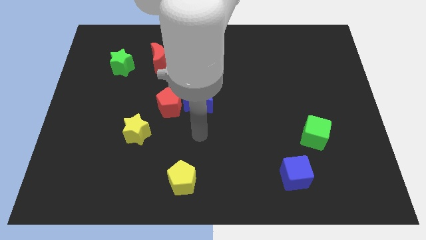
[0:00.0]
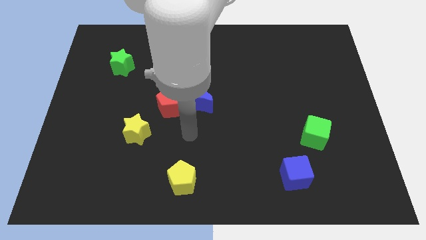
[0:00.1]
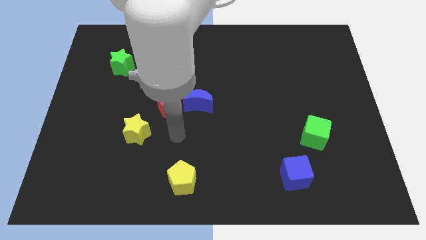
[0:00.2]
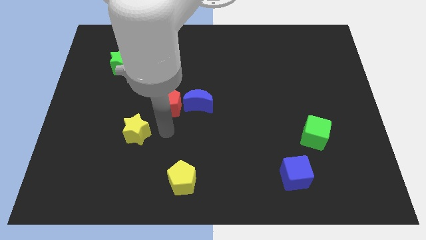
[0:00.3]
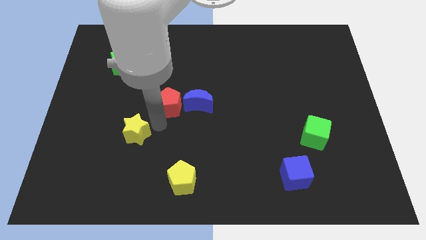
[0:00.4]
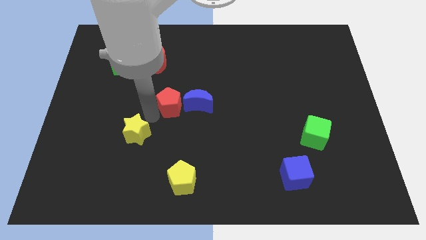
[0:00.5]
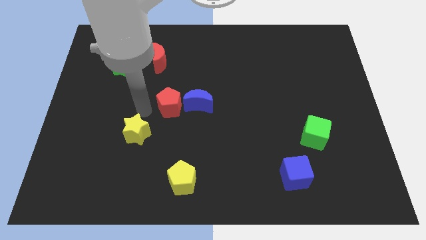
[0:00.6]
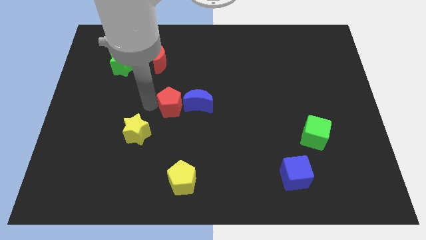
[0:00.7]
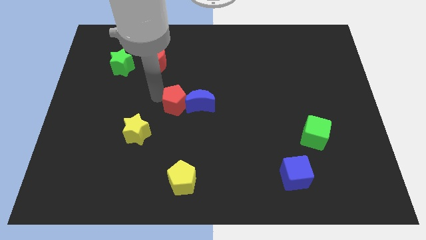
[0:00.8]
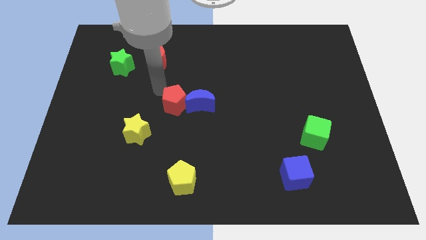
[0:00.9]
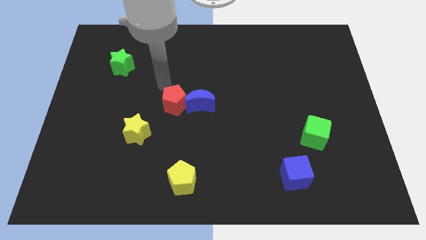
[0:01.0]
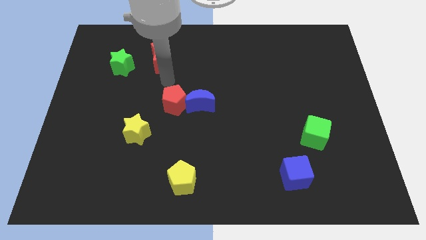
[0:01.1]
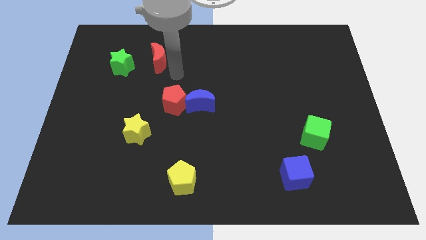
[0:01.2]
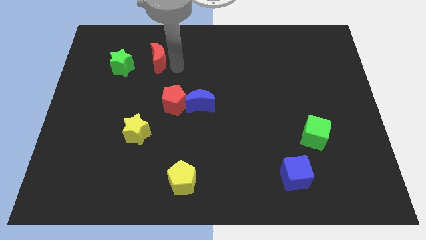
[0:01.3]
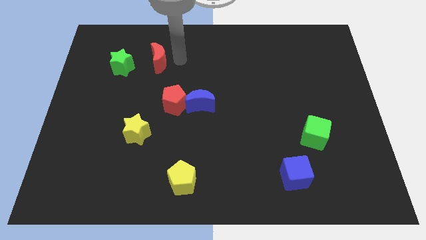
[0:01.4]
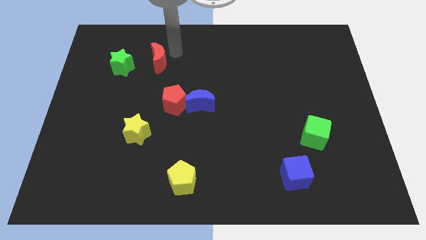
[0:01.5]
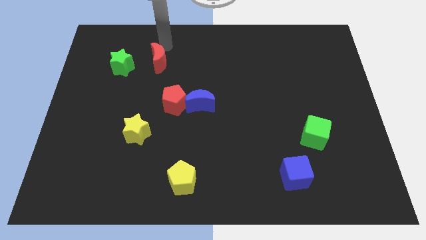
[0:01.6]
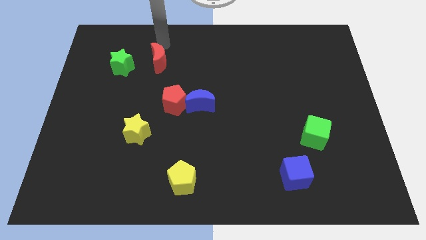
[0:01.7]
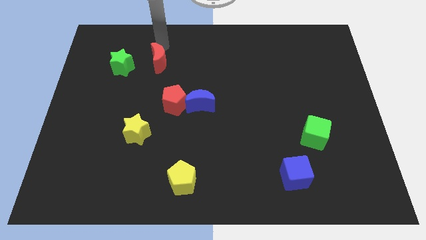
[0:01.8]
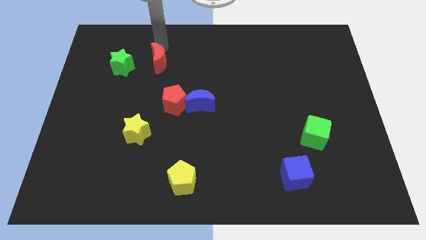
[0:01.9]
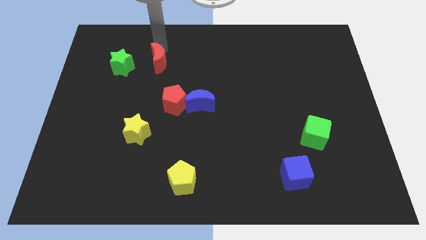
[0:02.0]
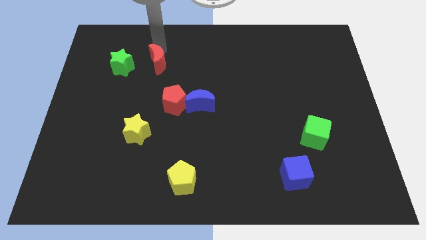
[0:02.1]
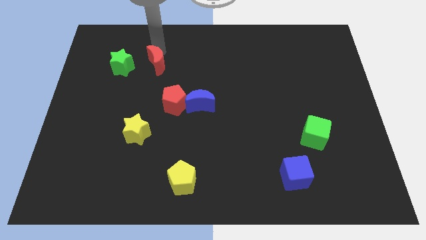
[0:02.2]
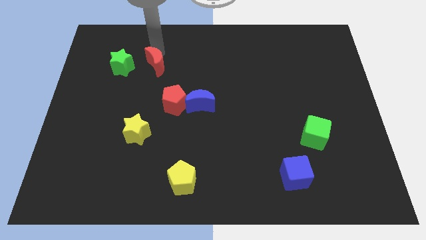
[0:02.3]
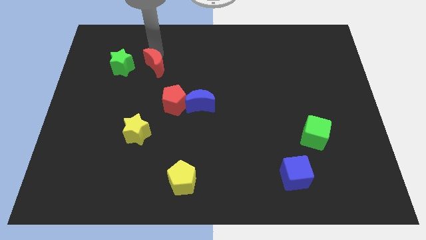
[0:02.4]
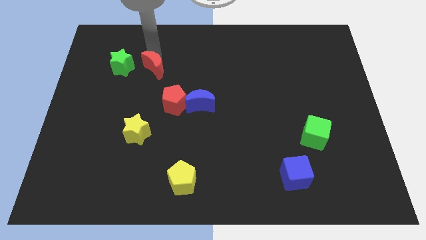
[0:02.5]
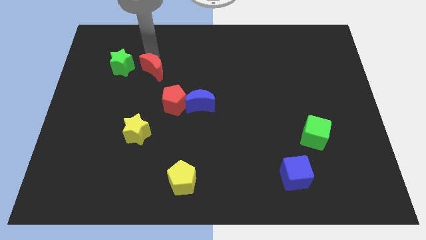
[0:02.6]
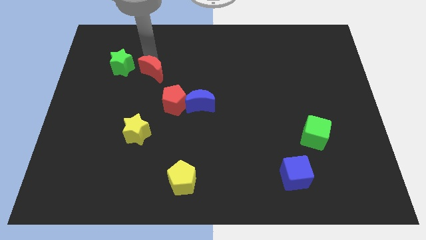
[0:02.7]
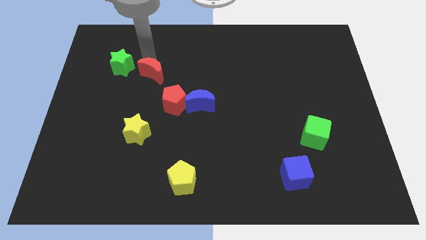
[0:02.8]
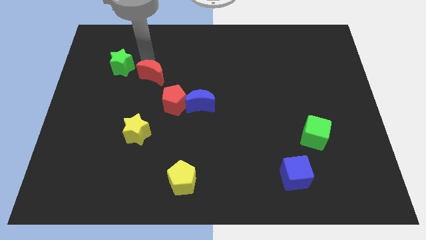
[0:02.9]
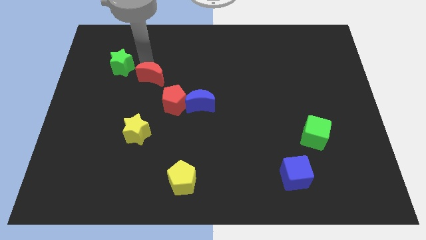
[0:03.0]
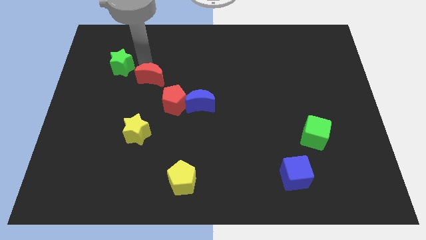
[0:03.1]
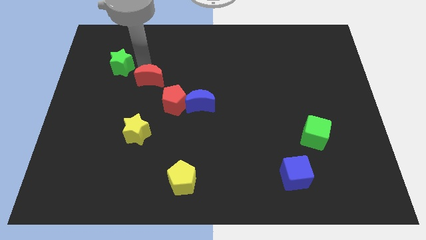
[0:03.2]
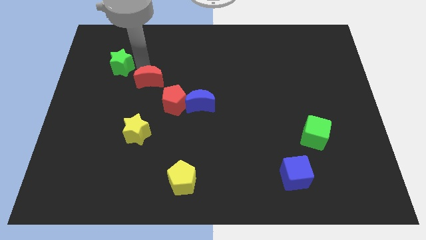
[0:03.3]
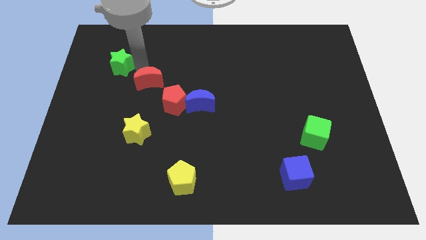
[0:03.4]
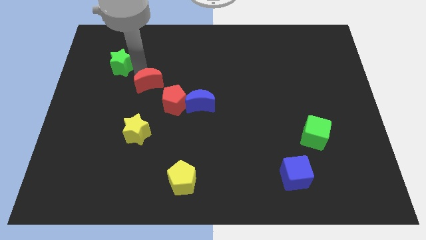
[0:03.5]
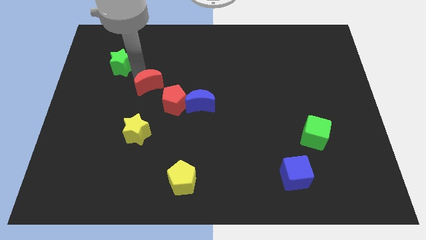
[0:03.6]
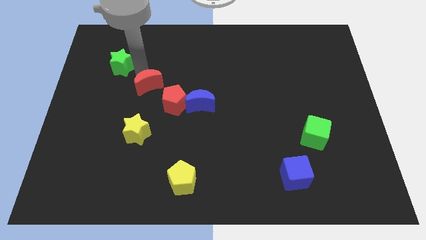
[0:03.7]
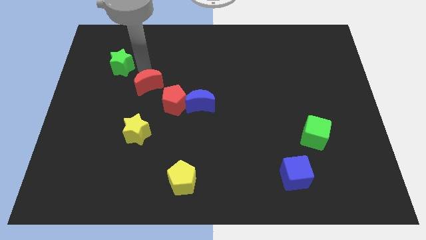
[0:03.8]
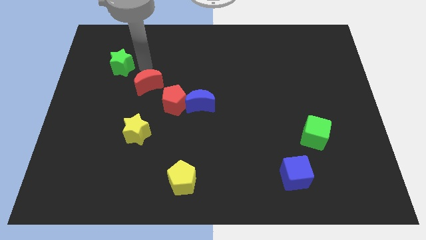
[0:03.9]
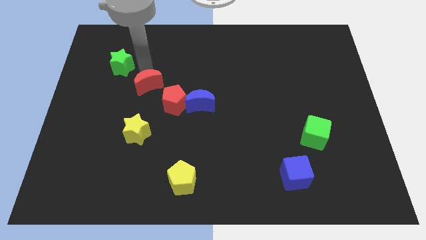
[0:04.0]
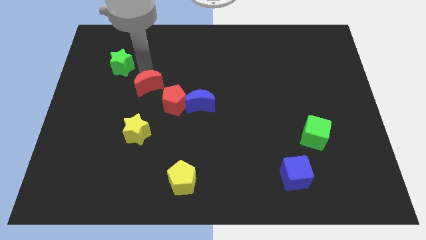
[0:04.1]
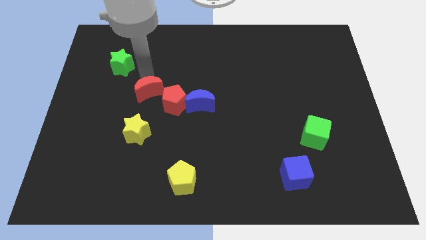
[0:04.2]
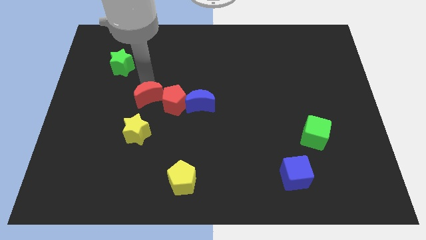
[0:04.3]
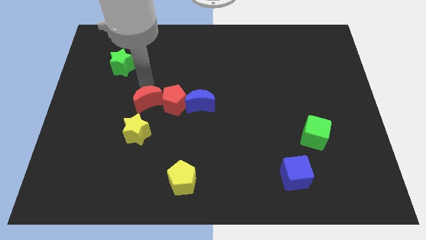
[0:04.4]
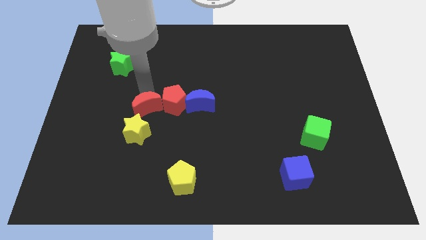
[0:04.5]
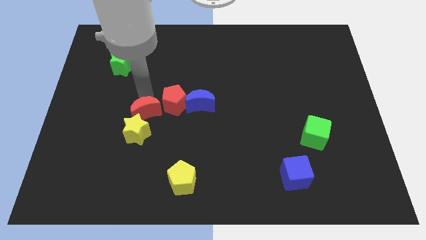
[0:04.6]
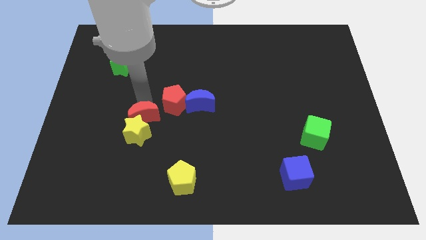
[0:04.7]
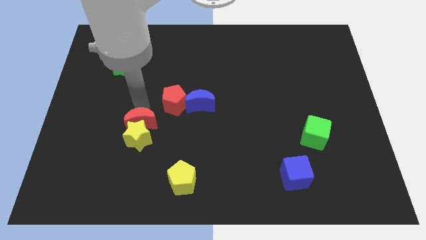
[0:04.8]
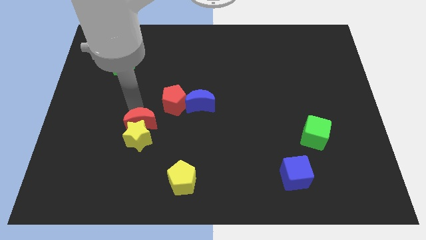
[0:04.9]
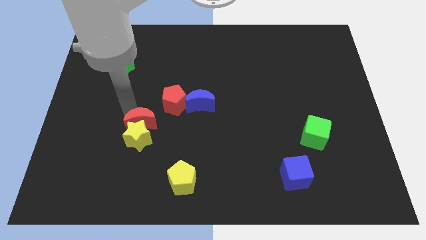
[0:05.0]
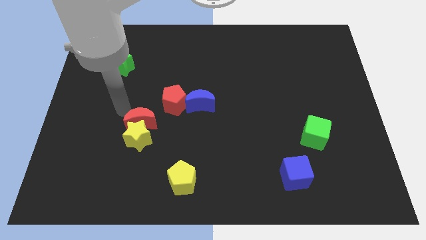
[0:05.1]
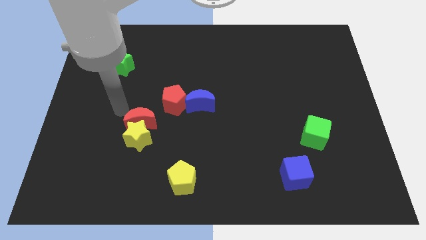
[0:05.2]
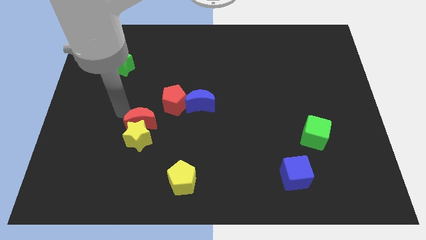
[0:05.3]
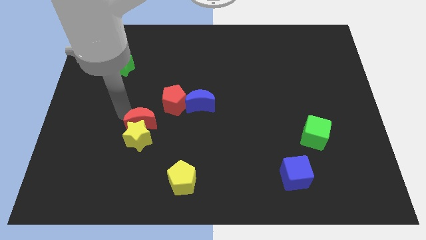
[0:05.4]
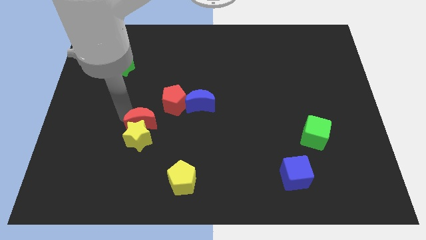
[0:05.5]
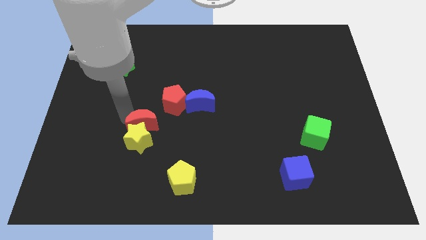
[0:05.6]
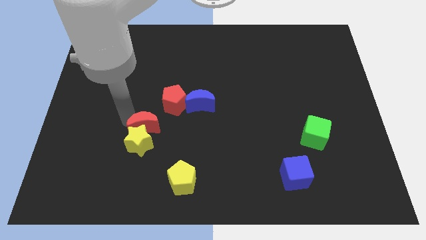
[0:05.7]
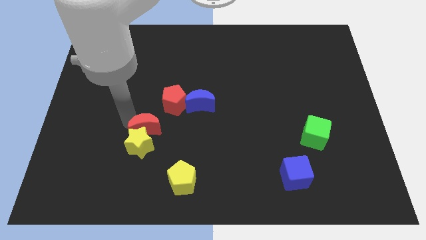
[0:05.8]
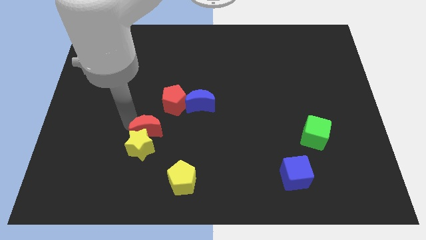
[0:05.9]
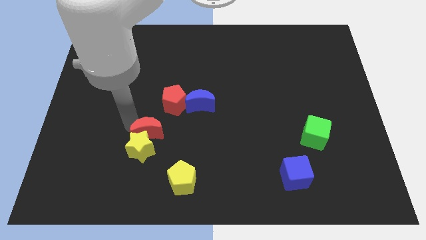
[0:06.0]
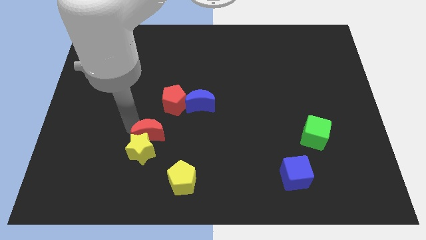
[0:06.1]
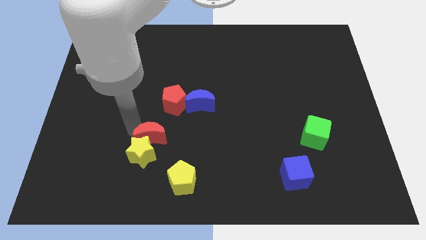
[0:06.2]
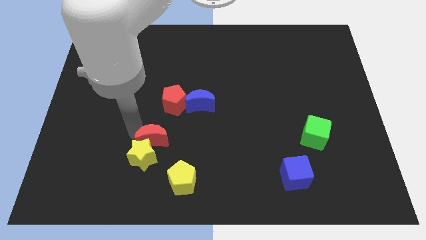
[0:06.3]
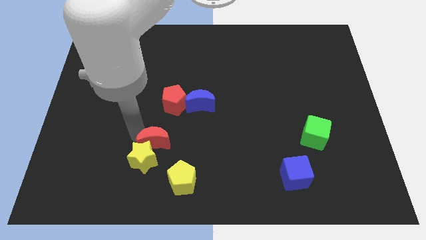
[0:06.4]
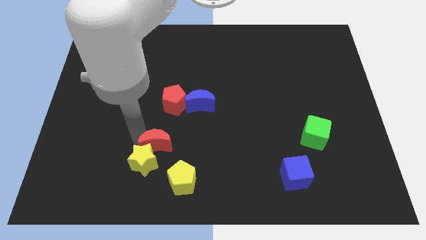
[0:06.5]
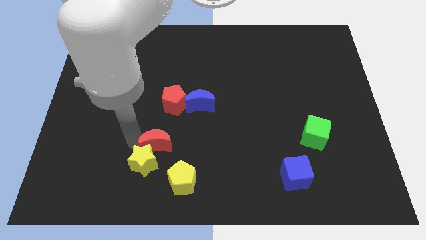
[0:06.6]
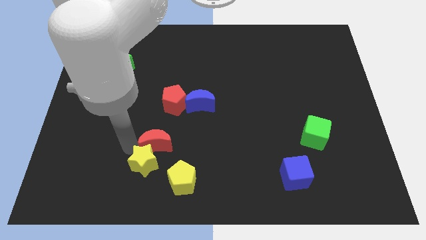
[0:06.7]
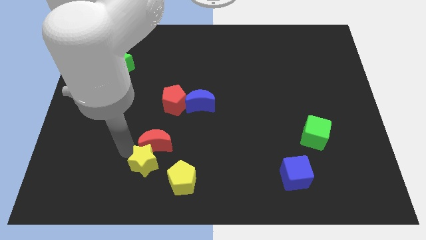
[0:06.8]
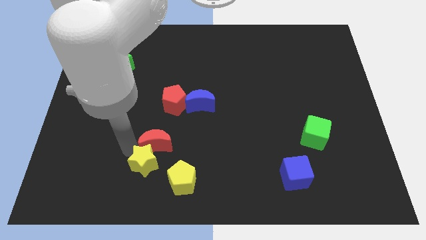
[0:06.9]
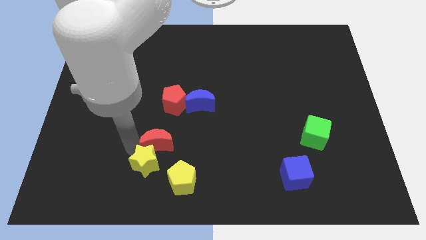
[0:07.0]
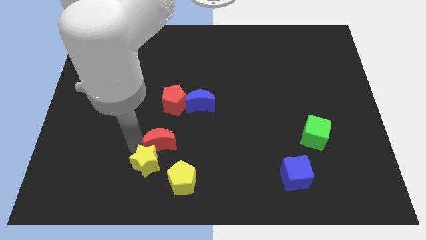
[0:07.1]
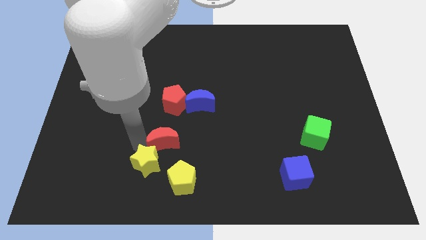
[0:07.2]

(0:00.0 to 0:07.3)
slide the red moon to the top side of the yellow pentagon
